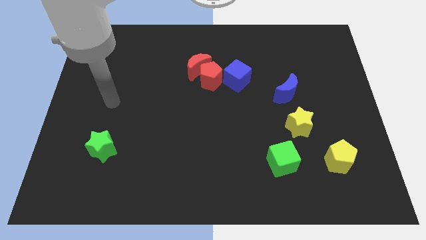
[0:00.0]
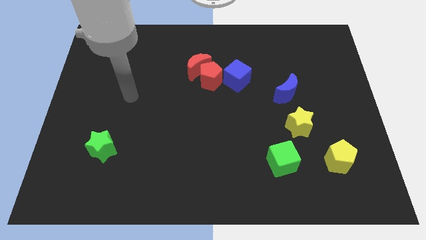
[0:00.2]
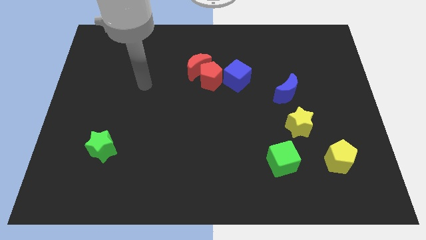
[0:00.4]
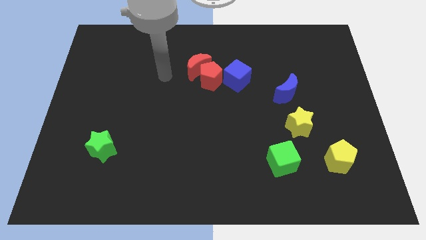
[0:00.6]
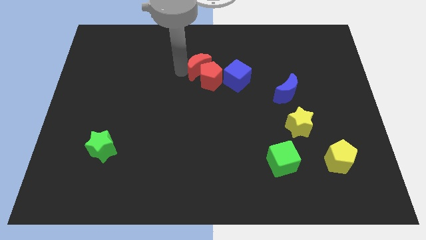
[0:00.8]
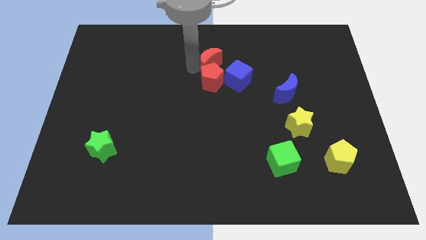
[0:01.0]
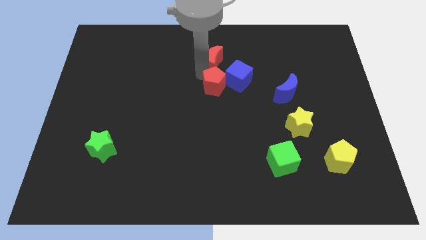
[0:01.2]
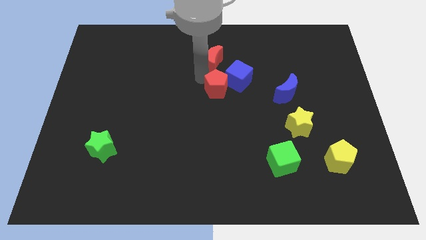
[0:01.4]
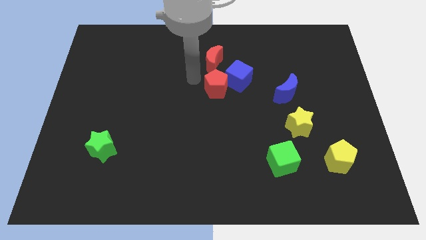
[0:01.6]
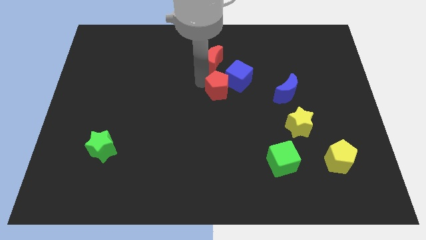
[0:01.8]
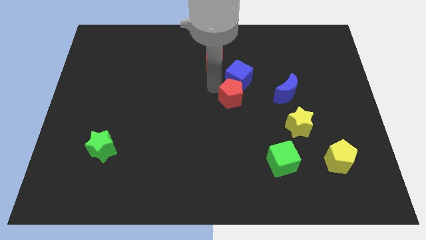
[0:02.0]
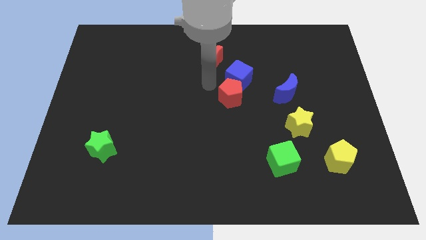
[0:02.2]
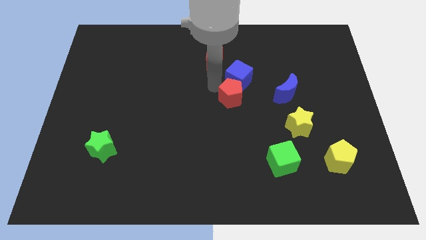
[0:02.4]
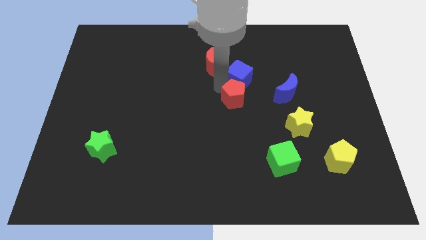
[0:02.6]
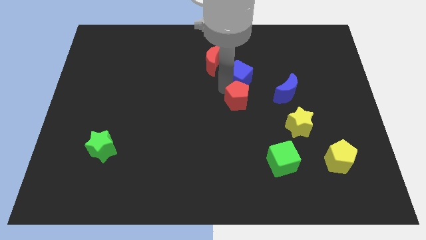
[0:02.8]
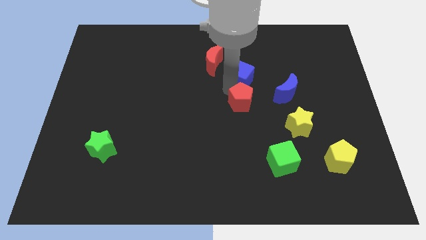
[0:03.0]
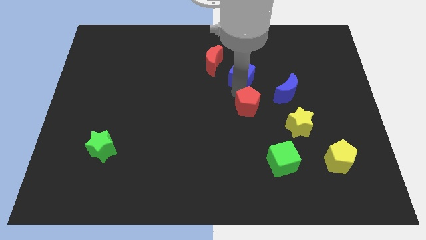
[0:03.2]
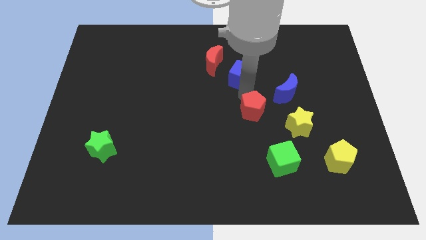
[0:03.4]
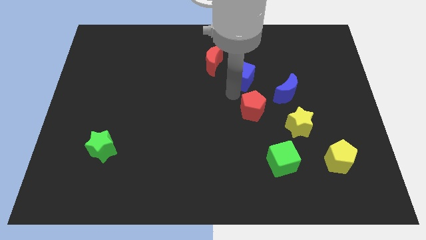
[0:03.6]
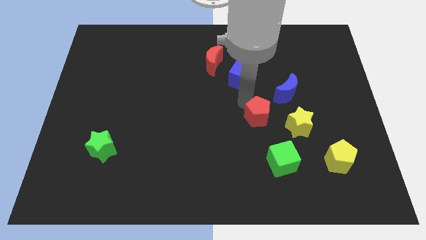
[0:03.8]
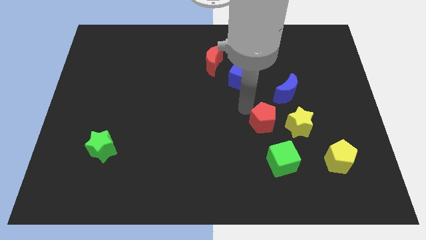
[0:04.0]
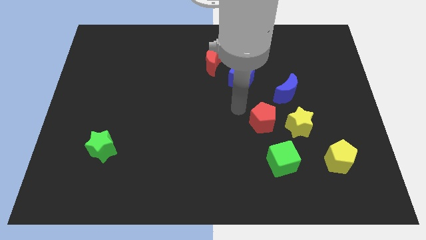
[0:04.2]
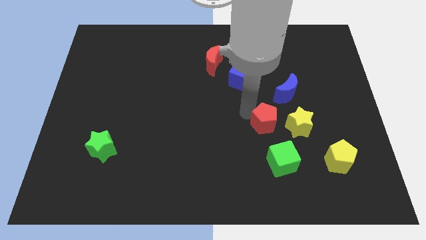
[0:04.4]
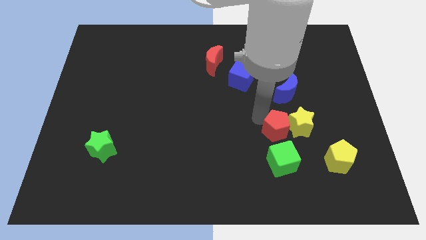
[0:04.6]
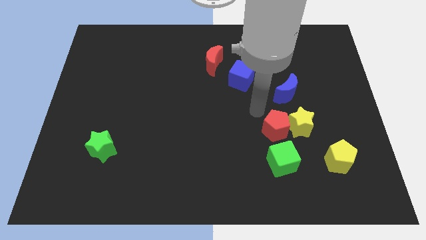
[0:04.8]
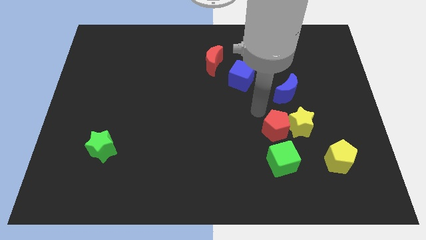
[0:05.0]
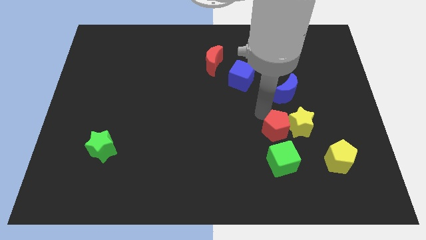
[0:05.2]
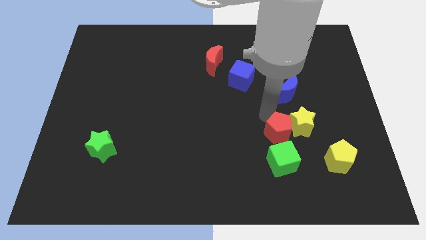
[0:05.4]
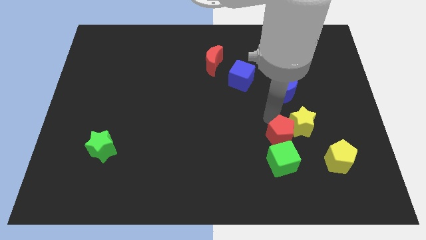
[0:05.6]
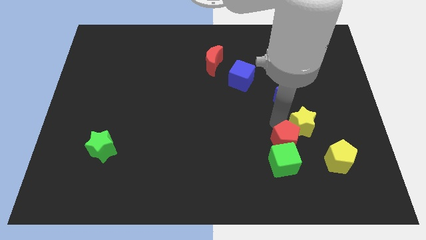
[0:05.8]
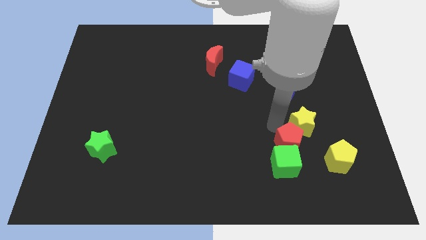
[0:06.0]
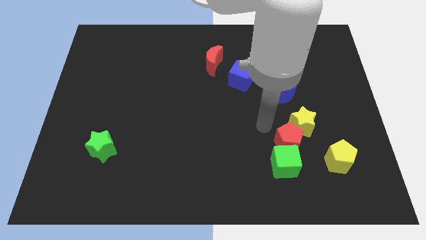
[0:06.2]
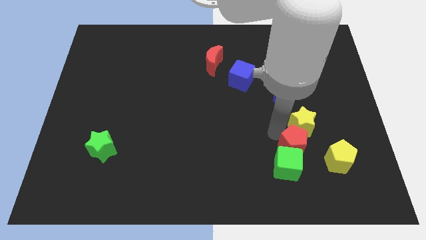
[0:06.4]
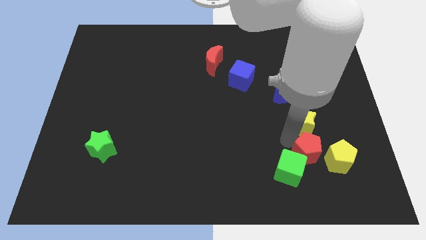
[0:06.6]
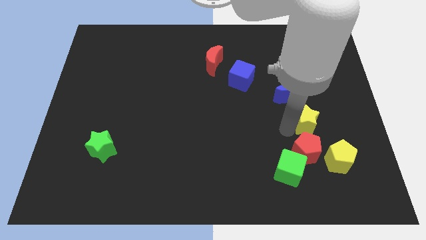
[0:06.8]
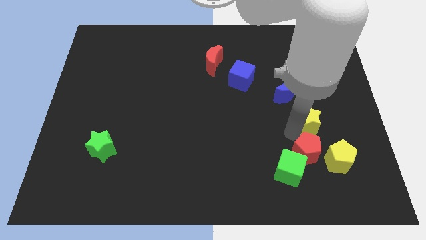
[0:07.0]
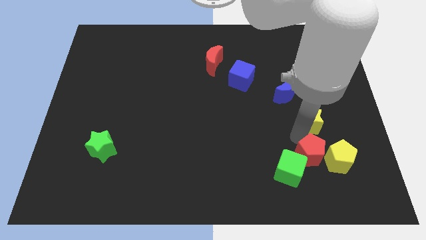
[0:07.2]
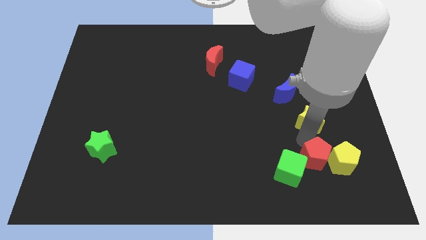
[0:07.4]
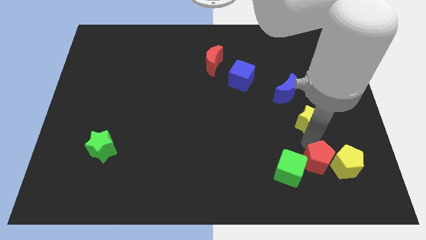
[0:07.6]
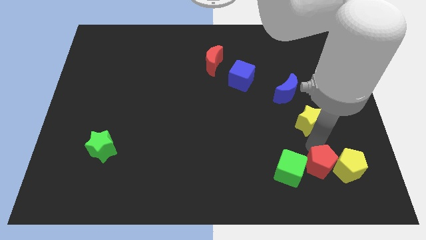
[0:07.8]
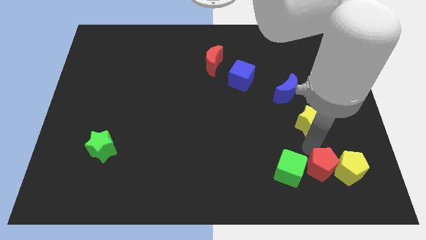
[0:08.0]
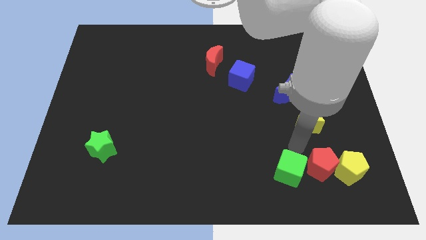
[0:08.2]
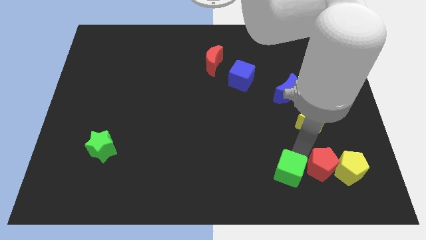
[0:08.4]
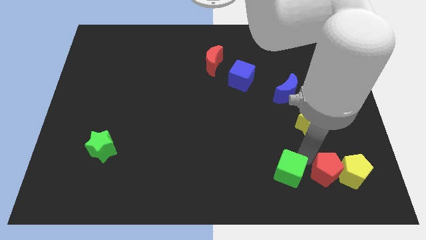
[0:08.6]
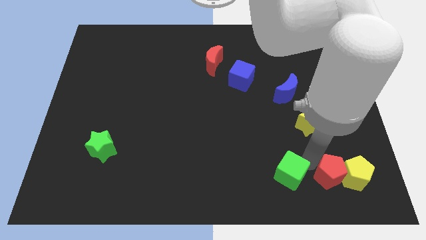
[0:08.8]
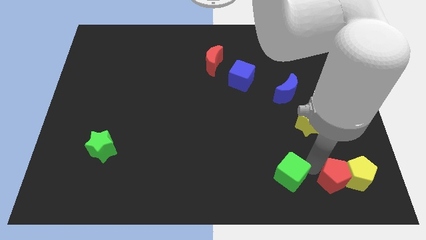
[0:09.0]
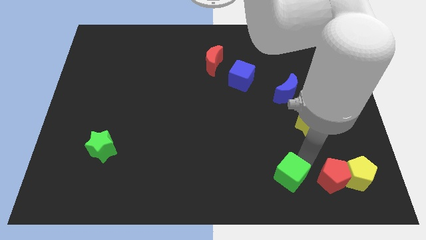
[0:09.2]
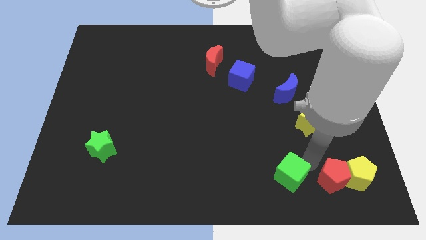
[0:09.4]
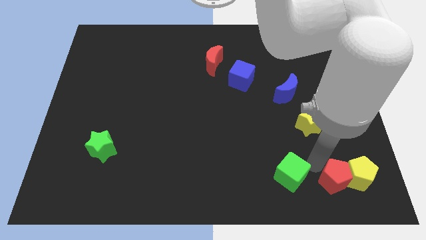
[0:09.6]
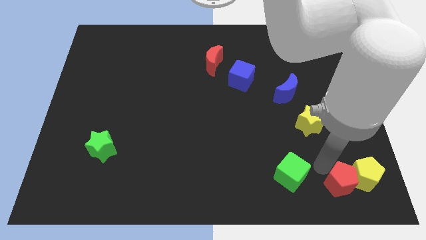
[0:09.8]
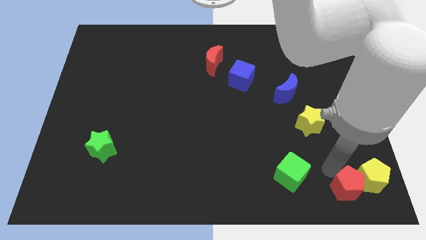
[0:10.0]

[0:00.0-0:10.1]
move the red pentagon to the bottom right

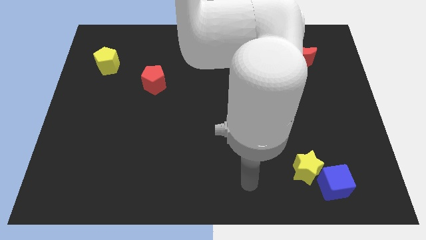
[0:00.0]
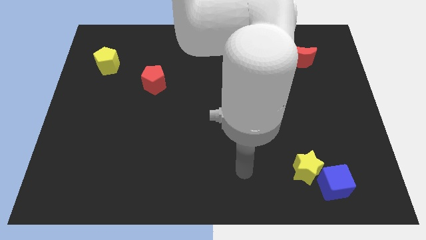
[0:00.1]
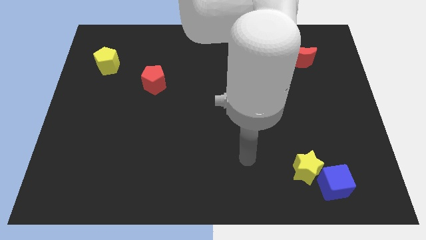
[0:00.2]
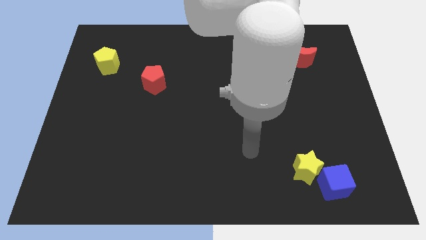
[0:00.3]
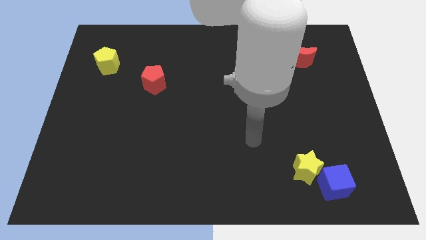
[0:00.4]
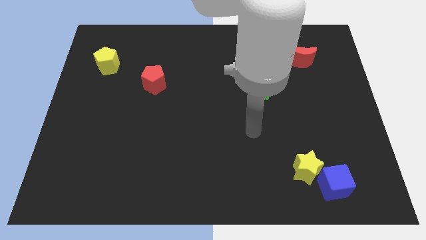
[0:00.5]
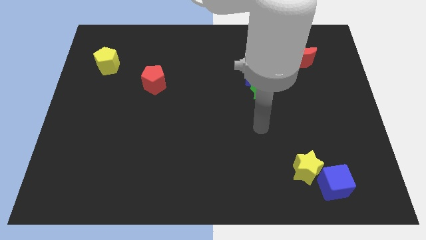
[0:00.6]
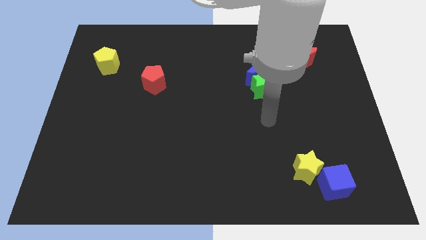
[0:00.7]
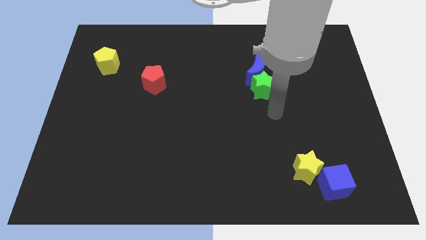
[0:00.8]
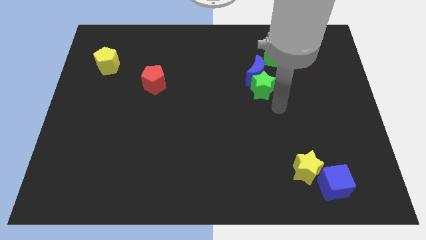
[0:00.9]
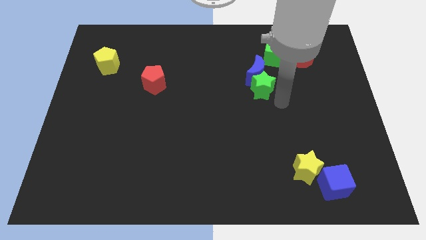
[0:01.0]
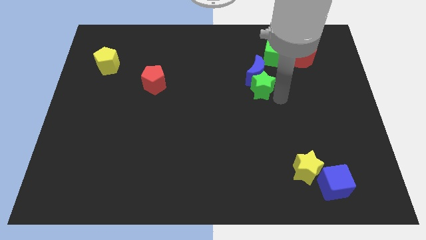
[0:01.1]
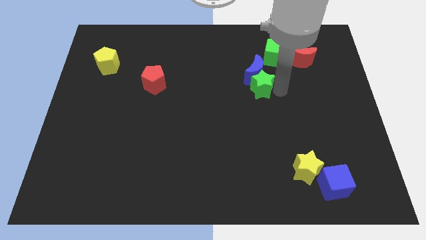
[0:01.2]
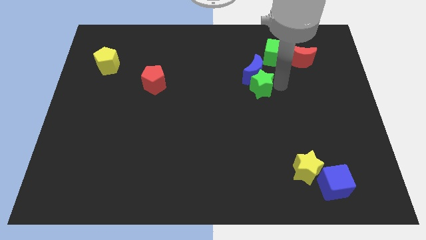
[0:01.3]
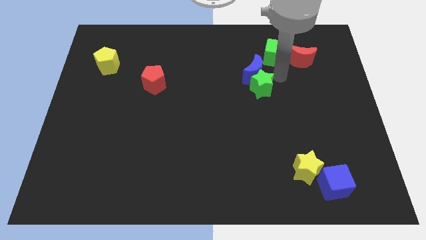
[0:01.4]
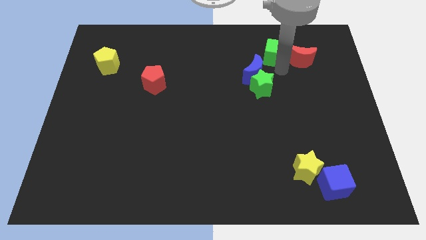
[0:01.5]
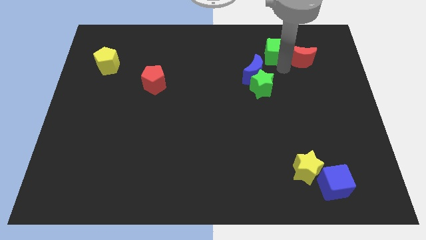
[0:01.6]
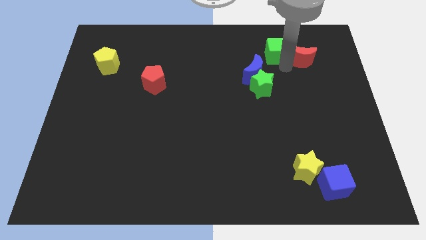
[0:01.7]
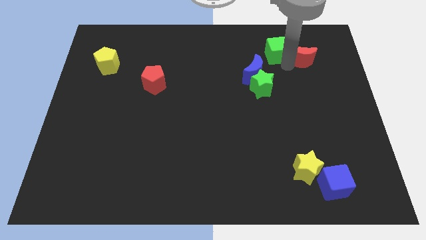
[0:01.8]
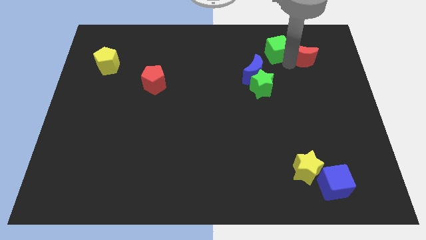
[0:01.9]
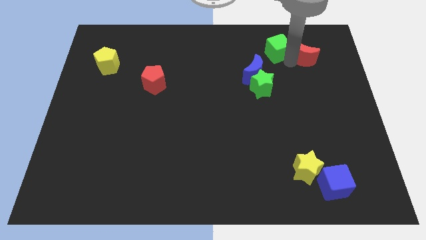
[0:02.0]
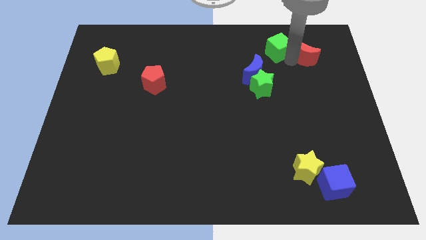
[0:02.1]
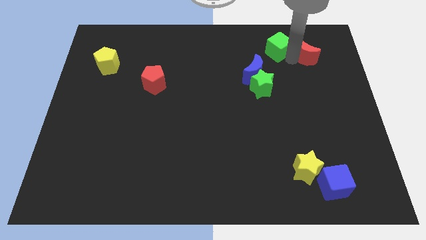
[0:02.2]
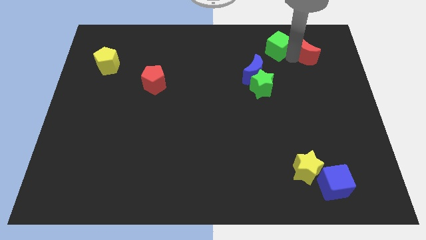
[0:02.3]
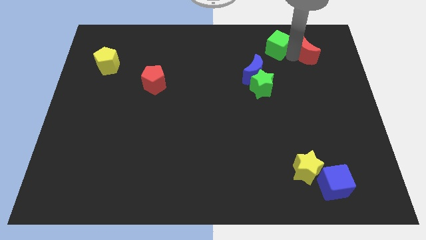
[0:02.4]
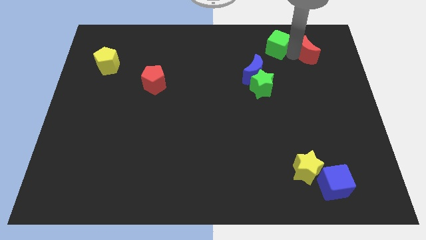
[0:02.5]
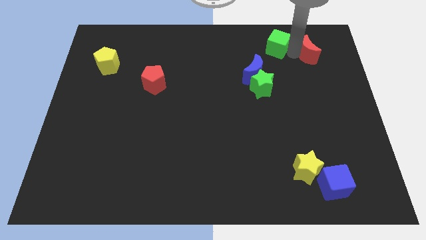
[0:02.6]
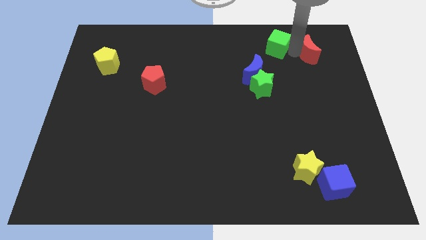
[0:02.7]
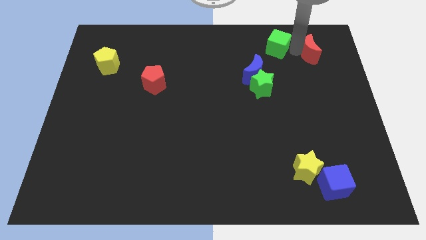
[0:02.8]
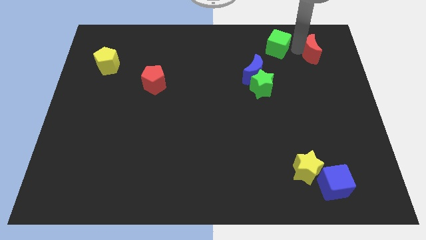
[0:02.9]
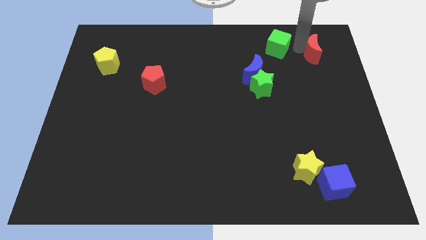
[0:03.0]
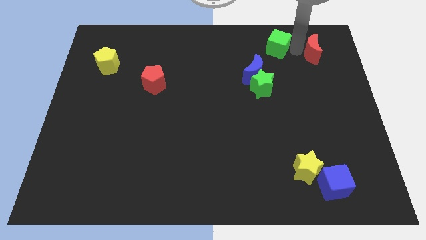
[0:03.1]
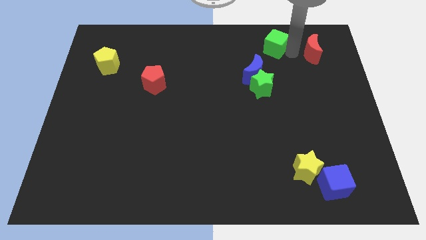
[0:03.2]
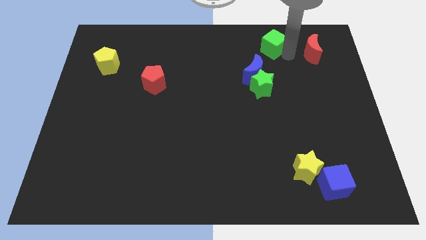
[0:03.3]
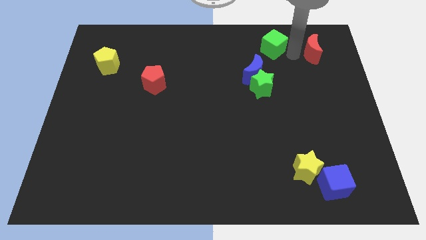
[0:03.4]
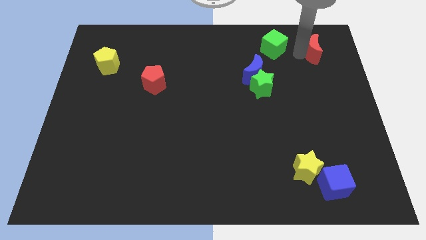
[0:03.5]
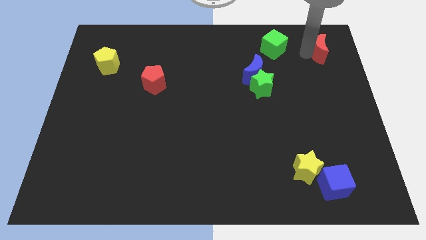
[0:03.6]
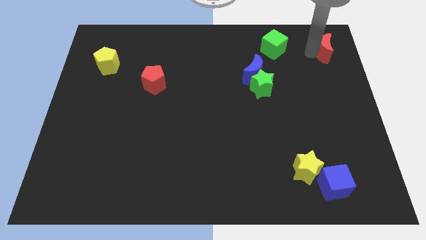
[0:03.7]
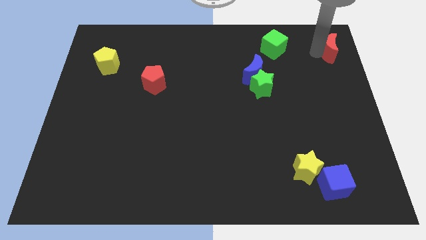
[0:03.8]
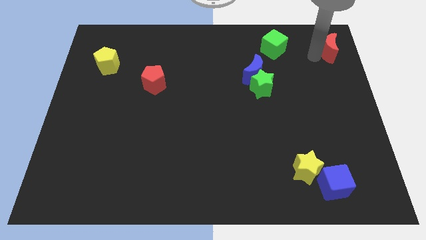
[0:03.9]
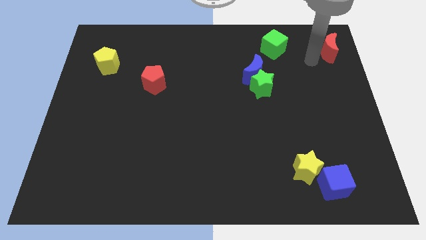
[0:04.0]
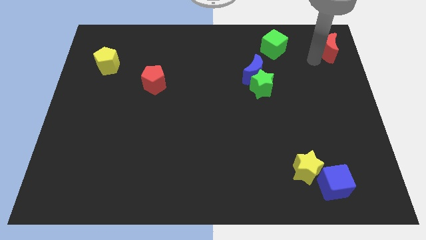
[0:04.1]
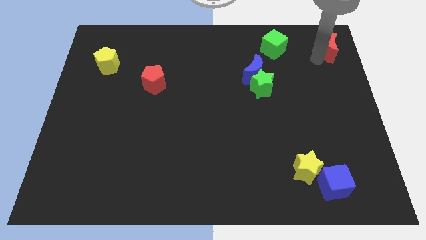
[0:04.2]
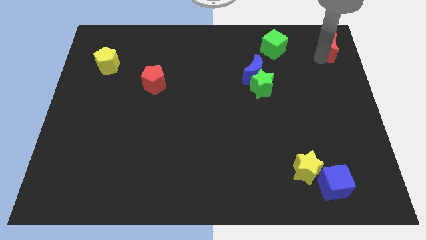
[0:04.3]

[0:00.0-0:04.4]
slide the red moon to the top right corner
